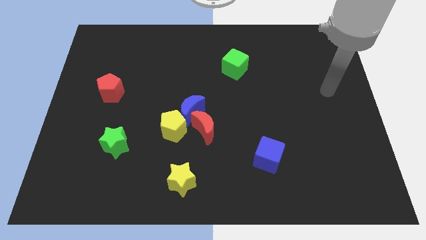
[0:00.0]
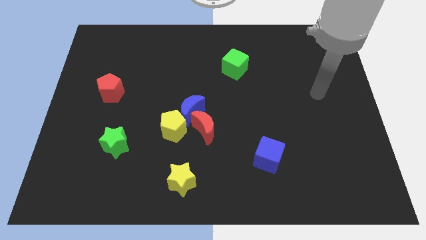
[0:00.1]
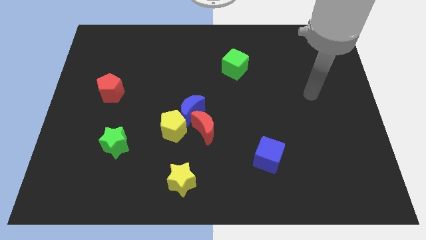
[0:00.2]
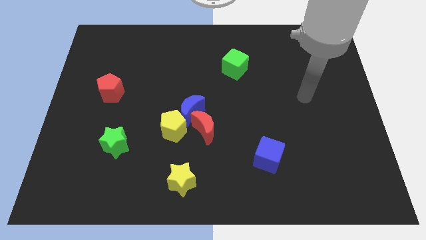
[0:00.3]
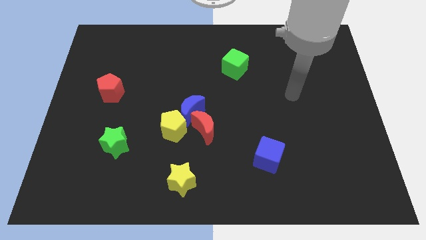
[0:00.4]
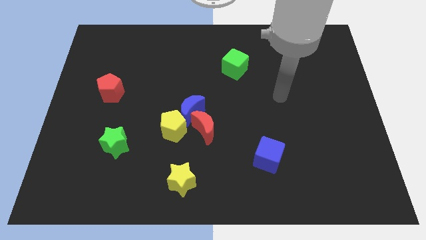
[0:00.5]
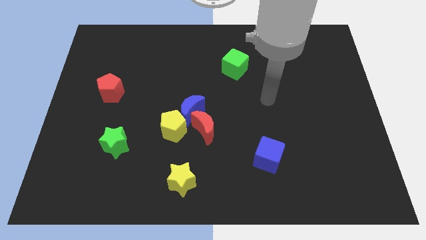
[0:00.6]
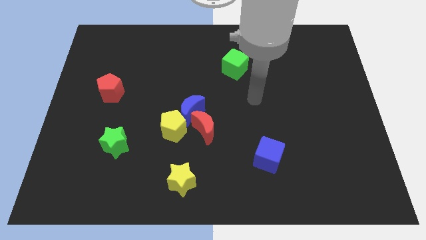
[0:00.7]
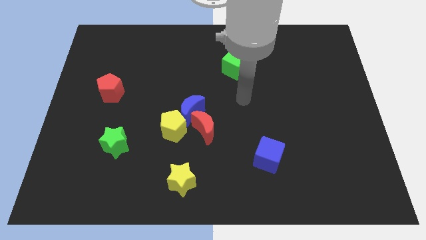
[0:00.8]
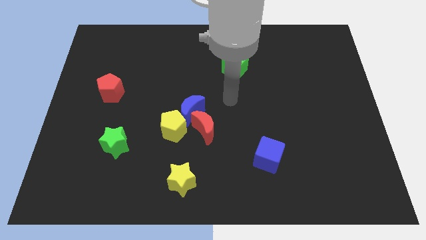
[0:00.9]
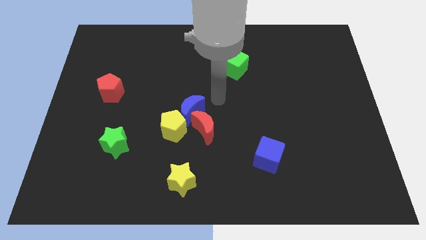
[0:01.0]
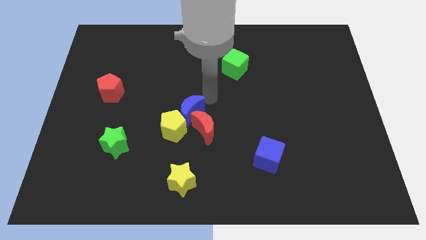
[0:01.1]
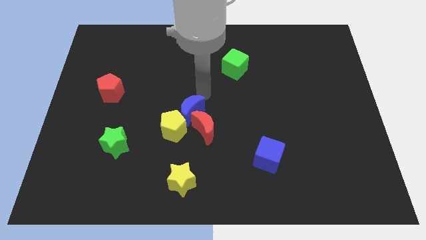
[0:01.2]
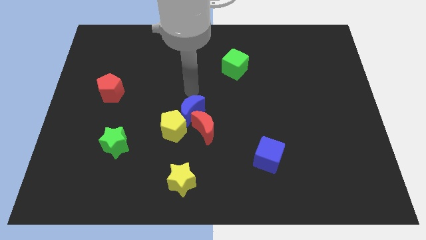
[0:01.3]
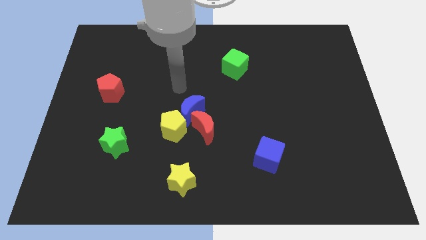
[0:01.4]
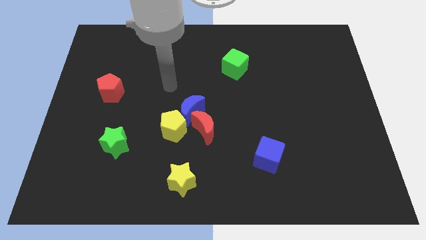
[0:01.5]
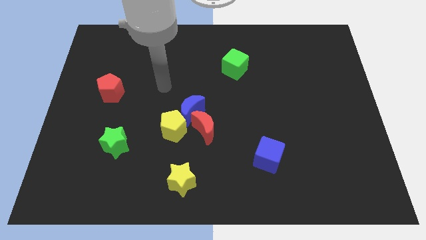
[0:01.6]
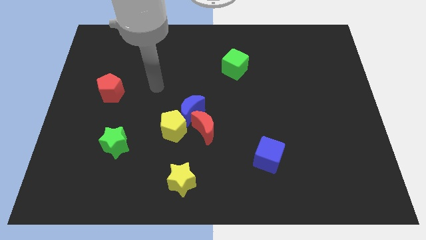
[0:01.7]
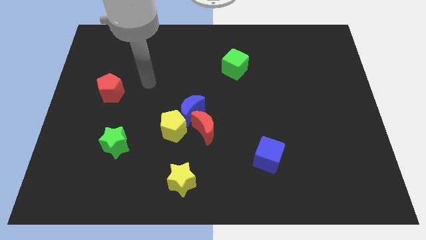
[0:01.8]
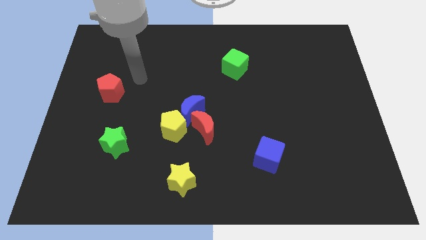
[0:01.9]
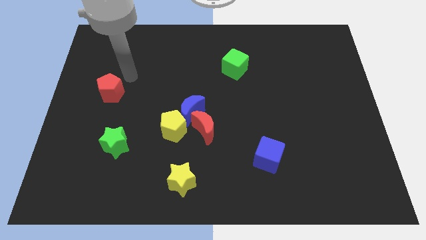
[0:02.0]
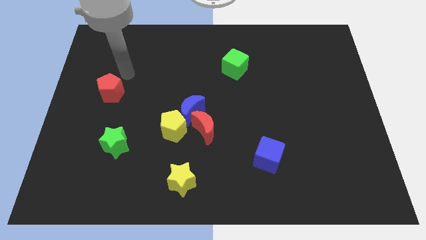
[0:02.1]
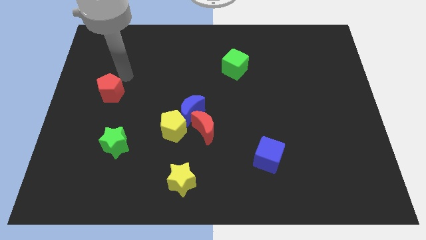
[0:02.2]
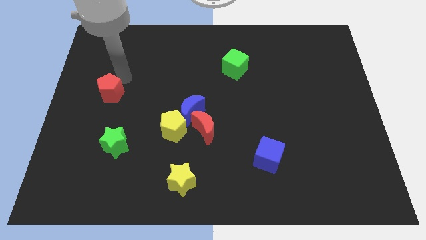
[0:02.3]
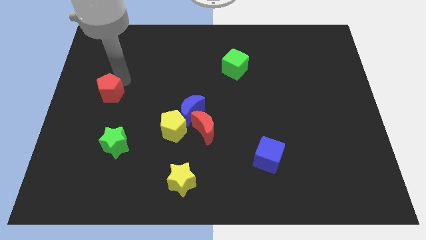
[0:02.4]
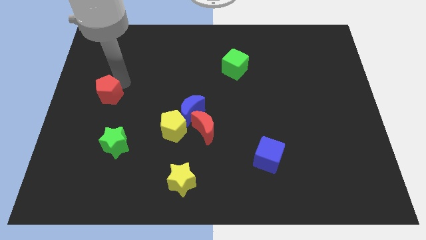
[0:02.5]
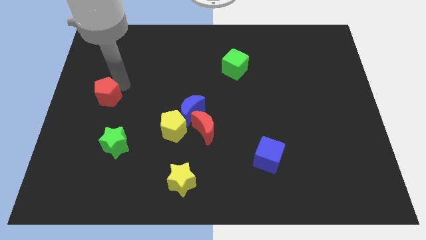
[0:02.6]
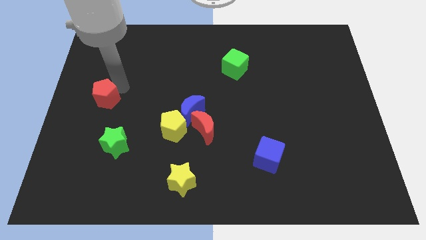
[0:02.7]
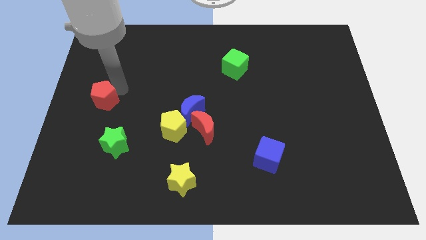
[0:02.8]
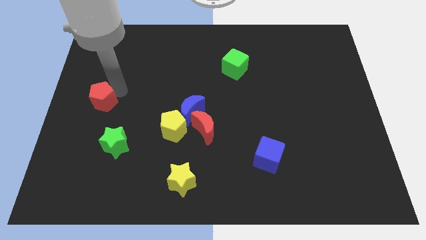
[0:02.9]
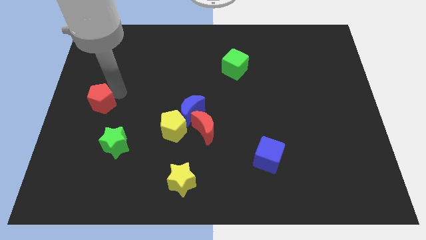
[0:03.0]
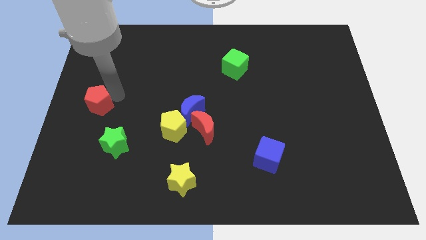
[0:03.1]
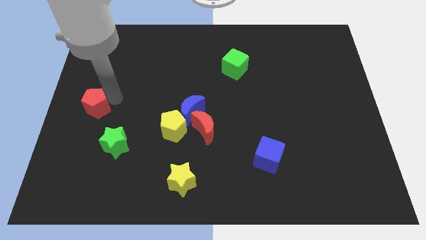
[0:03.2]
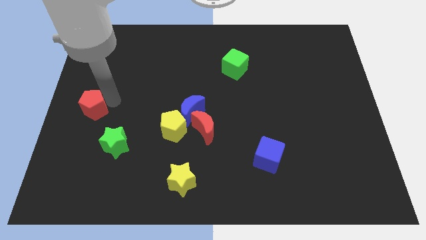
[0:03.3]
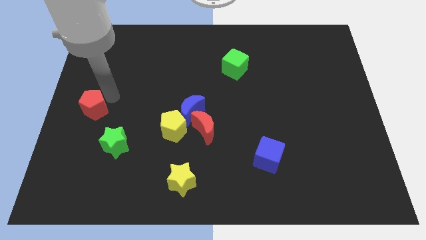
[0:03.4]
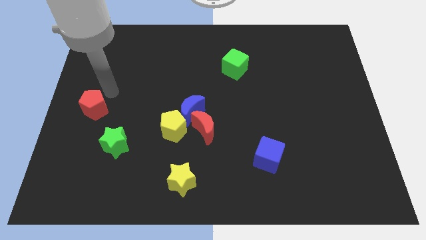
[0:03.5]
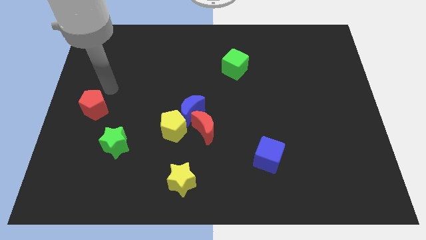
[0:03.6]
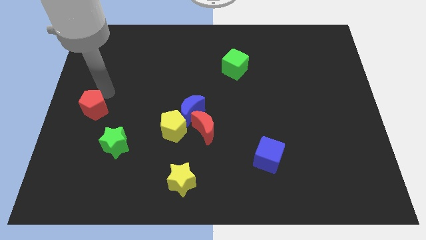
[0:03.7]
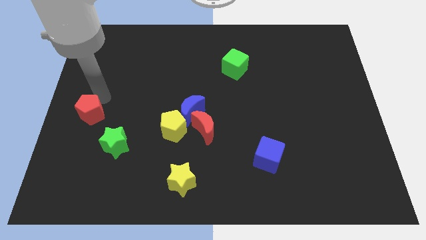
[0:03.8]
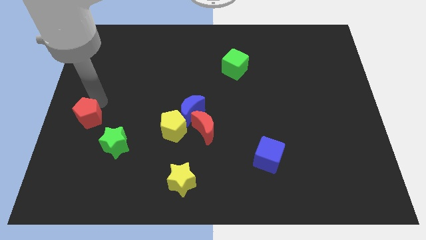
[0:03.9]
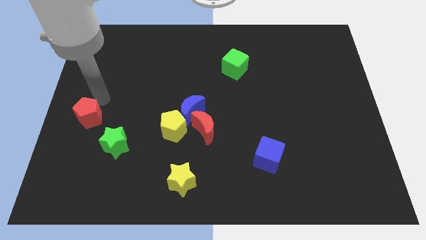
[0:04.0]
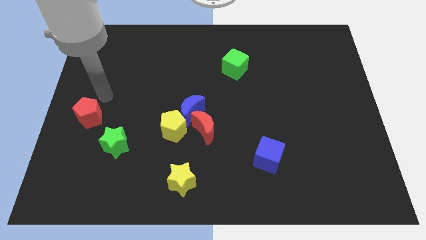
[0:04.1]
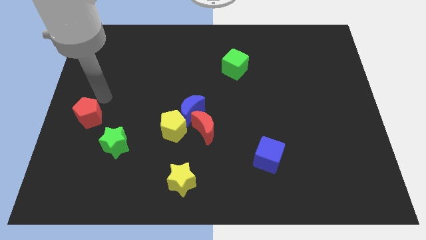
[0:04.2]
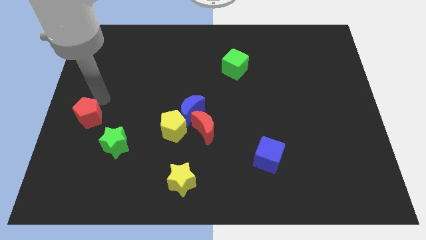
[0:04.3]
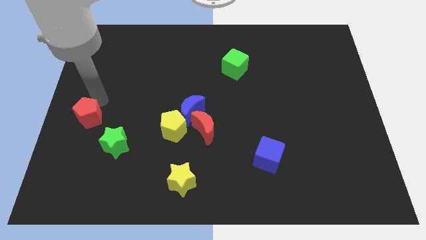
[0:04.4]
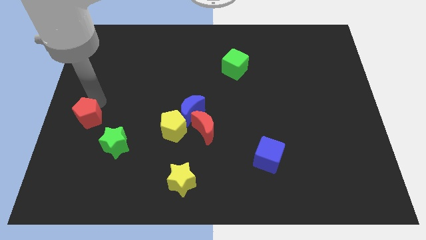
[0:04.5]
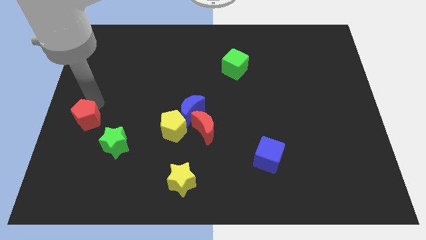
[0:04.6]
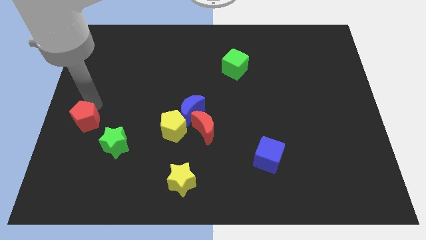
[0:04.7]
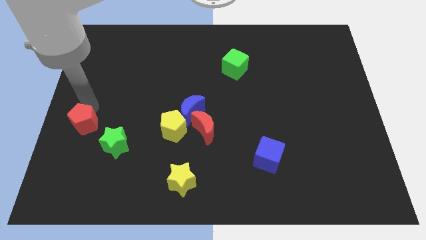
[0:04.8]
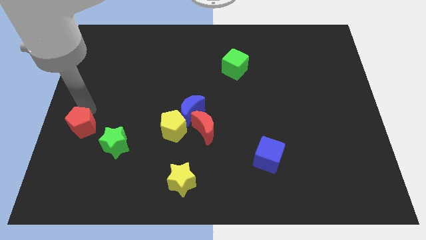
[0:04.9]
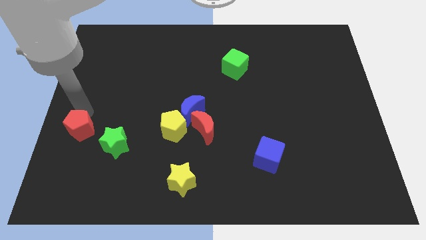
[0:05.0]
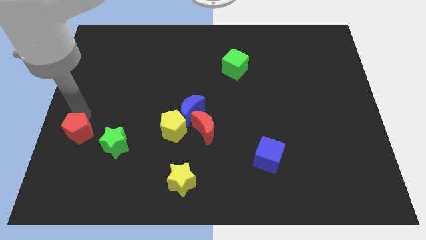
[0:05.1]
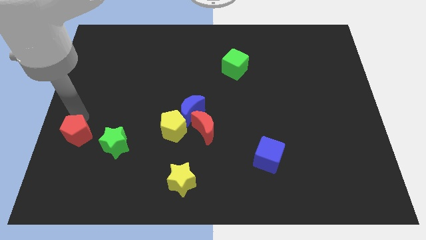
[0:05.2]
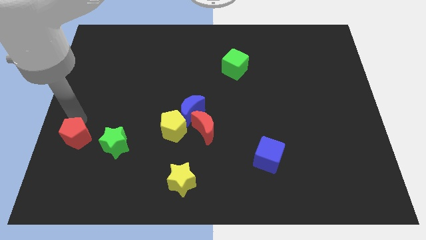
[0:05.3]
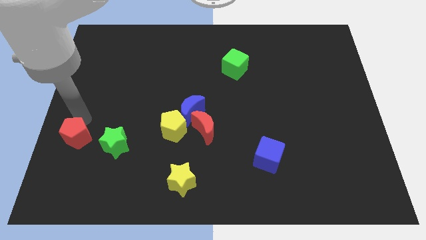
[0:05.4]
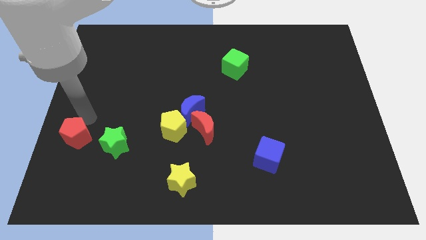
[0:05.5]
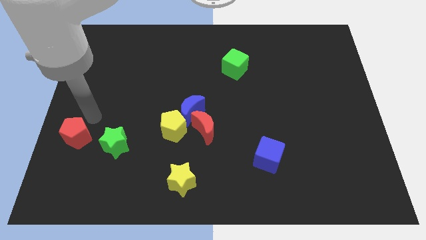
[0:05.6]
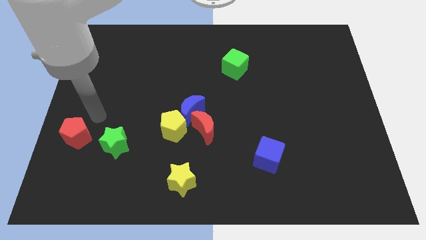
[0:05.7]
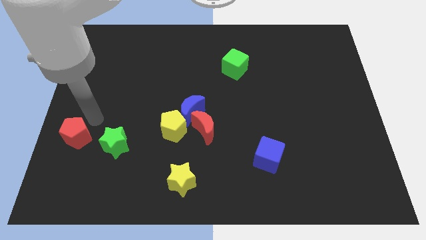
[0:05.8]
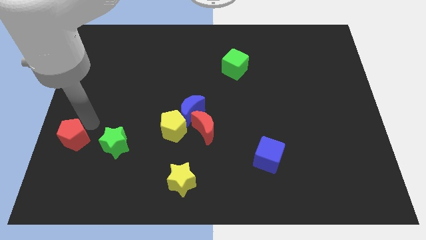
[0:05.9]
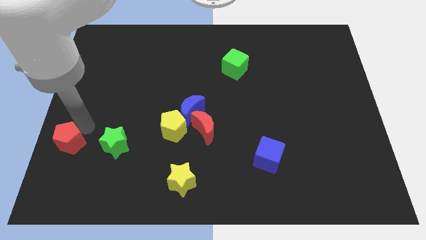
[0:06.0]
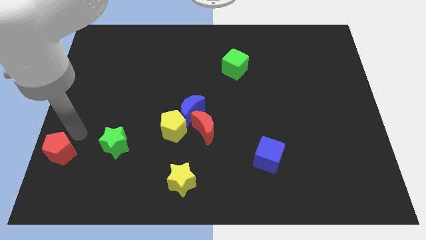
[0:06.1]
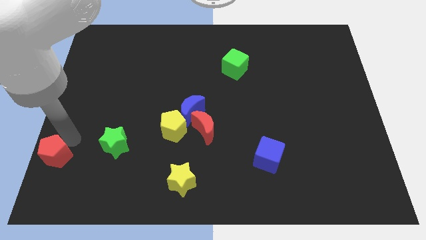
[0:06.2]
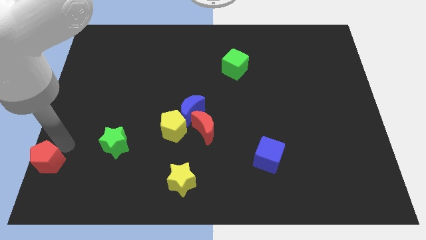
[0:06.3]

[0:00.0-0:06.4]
push the red pentagon to the bottom left of the board

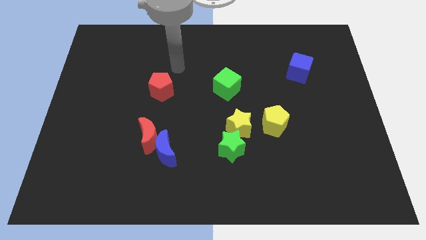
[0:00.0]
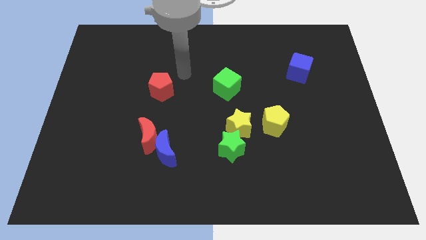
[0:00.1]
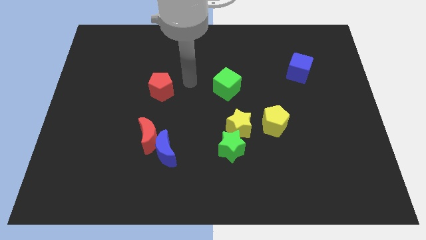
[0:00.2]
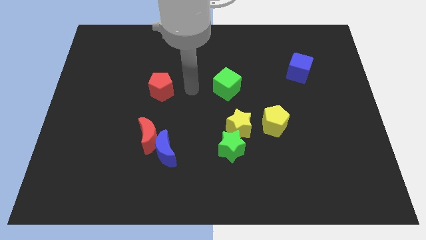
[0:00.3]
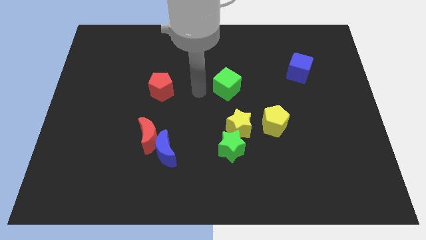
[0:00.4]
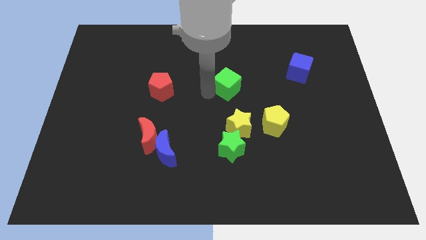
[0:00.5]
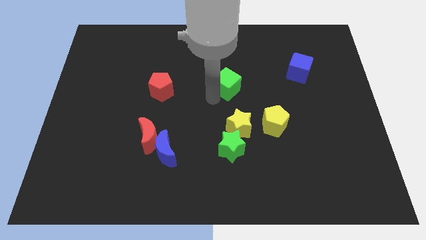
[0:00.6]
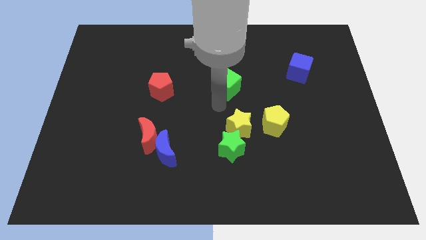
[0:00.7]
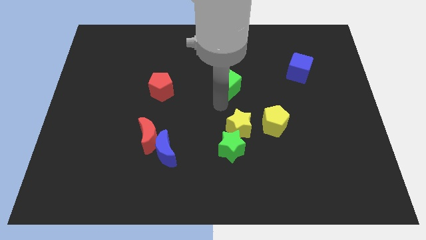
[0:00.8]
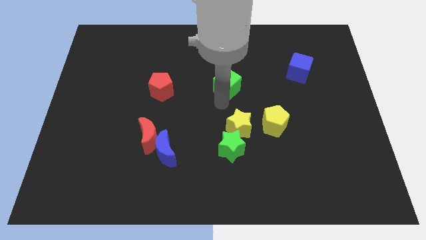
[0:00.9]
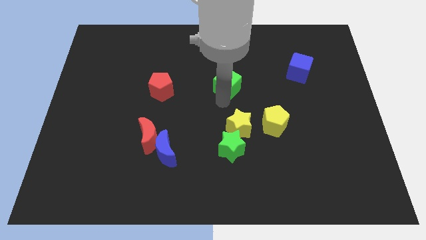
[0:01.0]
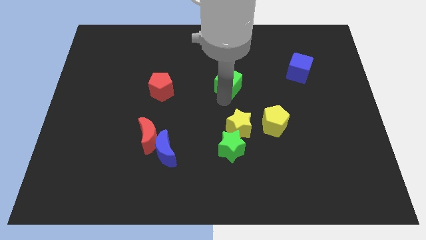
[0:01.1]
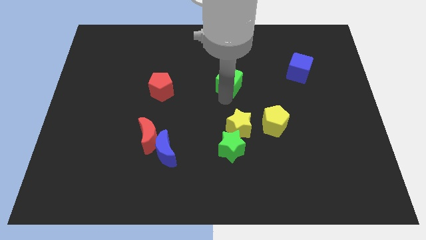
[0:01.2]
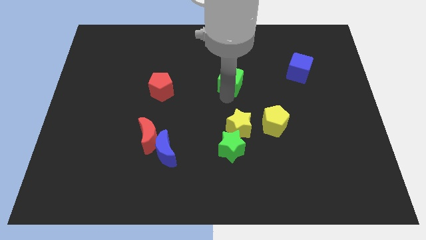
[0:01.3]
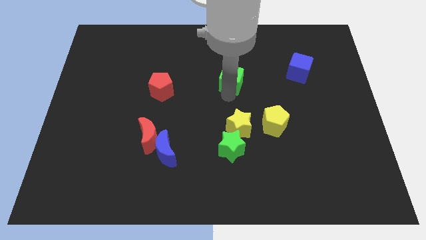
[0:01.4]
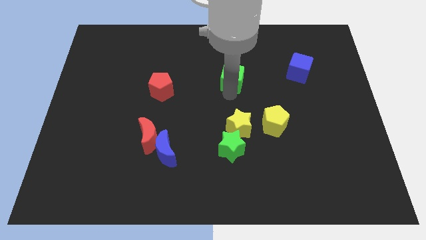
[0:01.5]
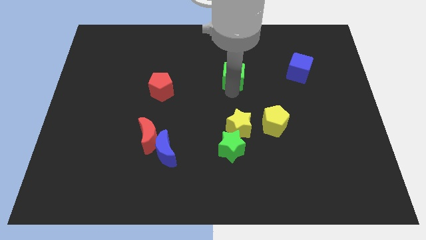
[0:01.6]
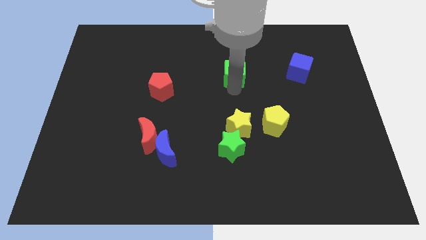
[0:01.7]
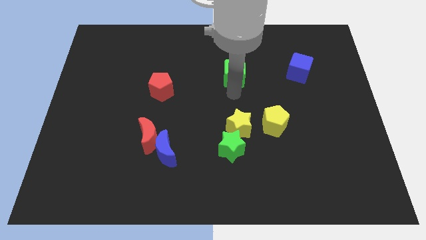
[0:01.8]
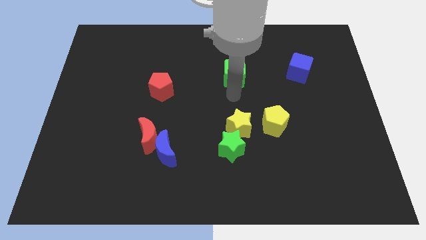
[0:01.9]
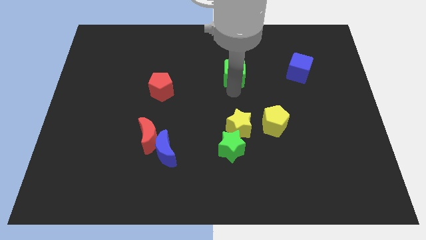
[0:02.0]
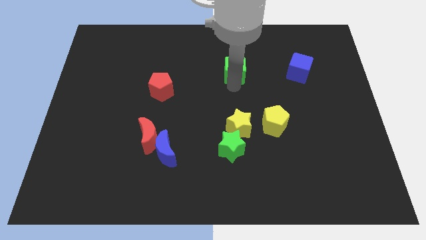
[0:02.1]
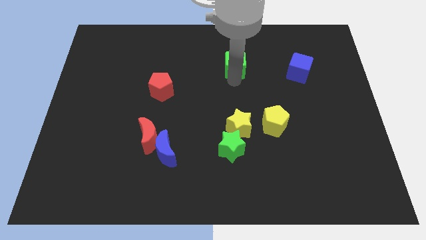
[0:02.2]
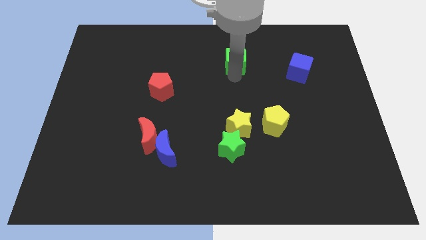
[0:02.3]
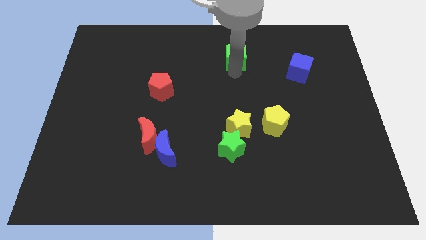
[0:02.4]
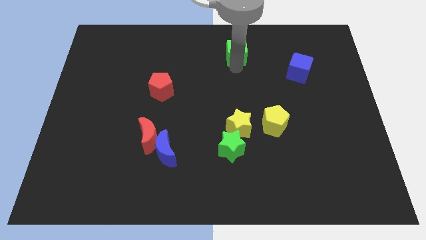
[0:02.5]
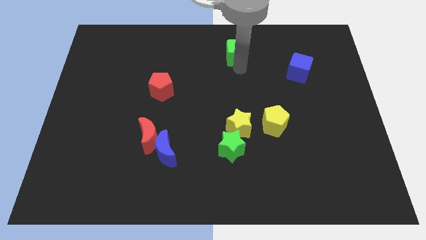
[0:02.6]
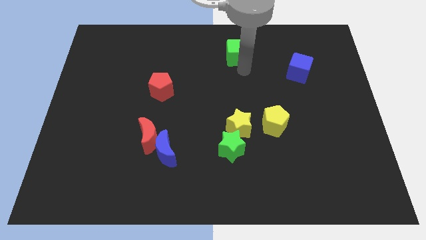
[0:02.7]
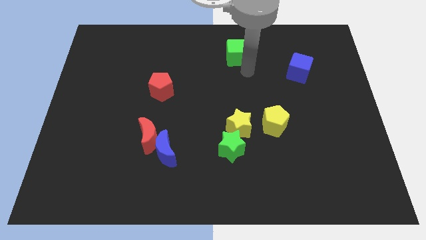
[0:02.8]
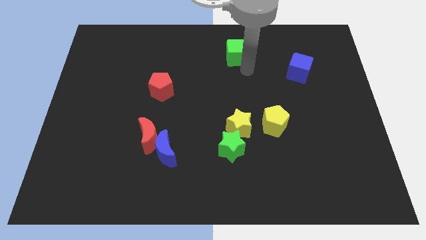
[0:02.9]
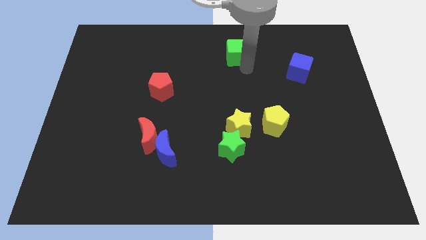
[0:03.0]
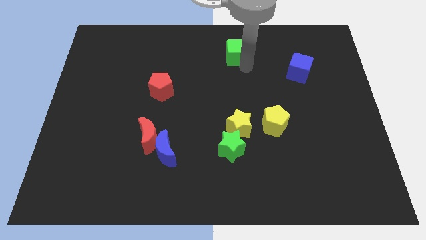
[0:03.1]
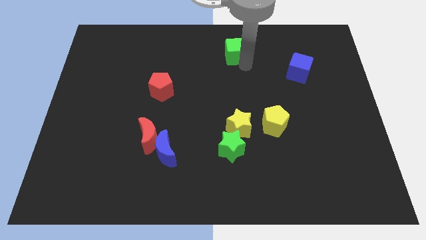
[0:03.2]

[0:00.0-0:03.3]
slide the green cube to the top side
